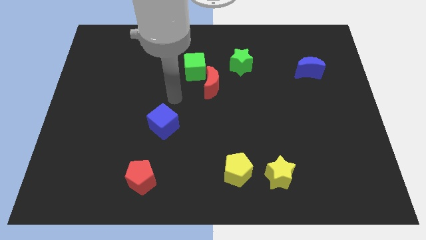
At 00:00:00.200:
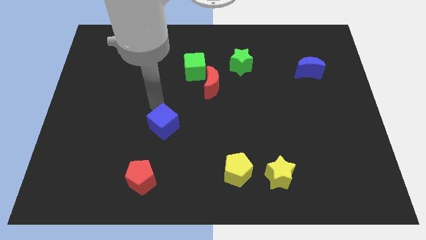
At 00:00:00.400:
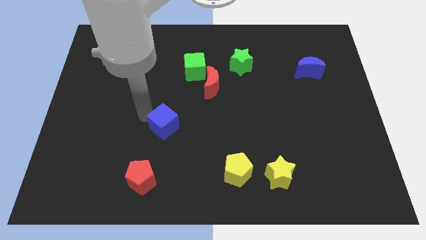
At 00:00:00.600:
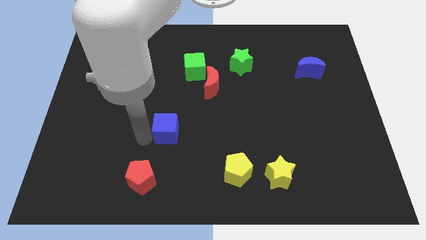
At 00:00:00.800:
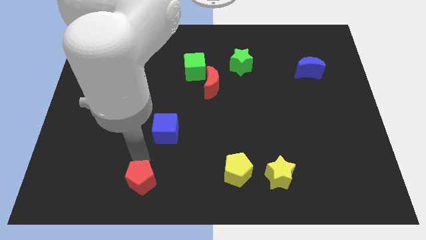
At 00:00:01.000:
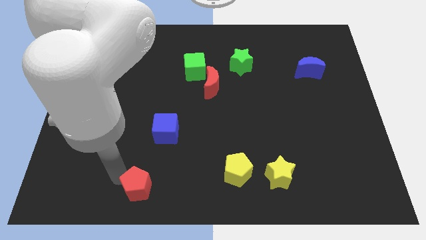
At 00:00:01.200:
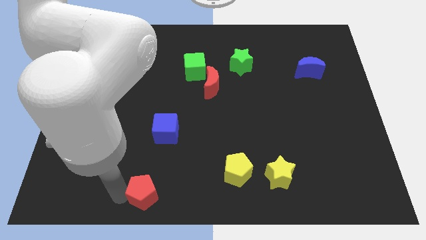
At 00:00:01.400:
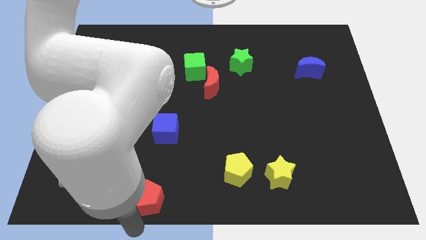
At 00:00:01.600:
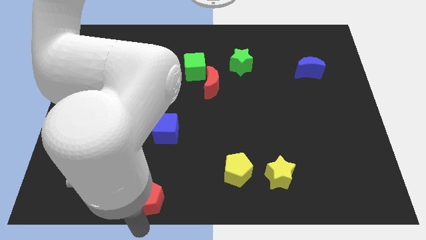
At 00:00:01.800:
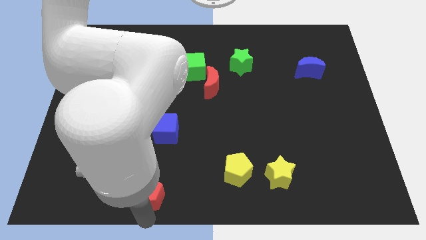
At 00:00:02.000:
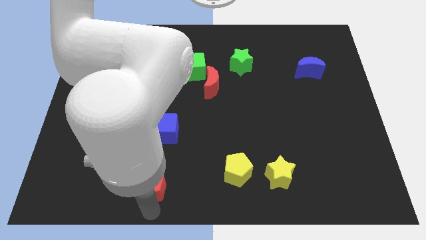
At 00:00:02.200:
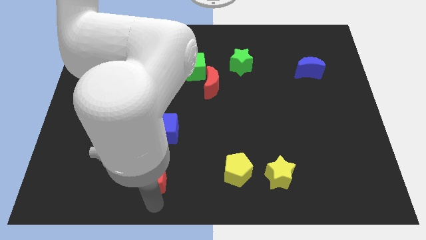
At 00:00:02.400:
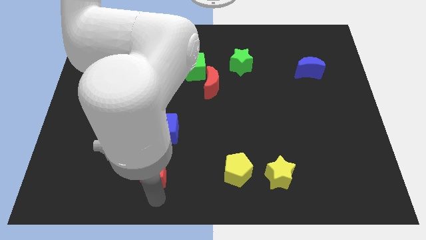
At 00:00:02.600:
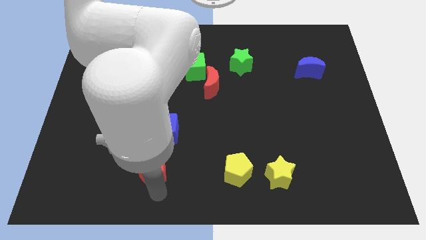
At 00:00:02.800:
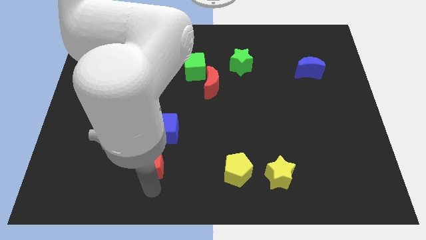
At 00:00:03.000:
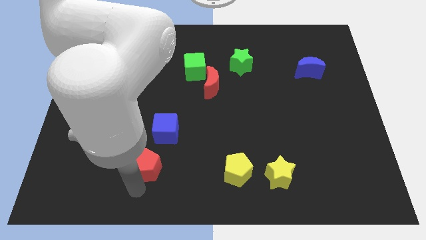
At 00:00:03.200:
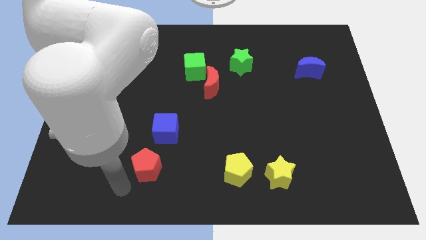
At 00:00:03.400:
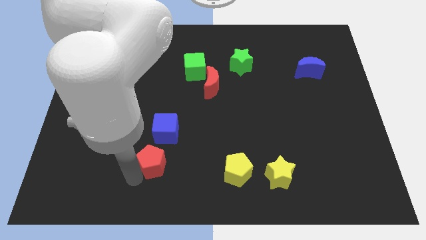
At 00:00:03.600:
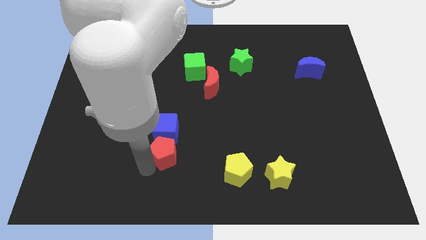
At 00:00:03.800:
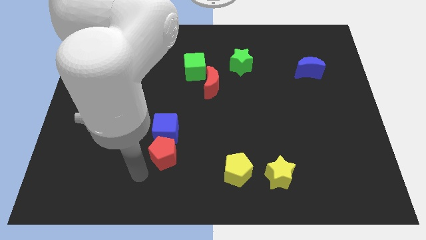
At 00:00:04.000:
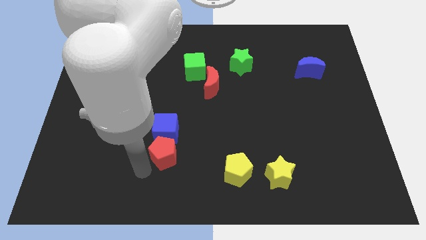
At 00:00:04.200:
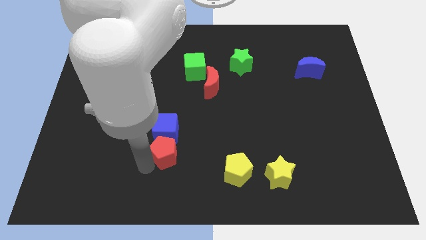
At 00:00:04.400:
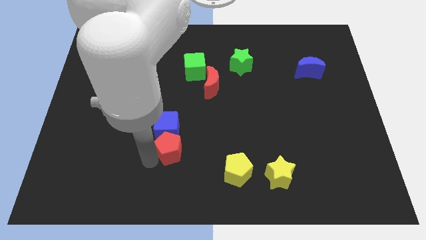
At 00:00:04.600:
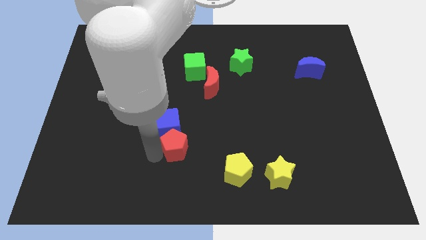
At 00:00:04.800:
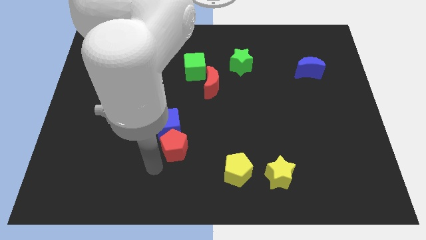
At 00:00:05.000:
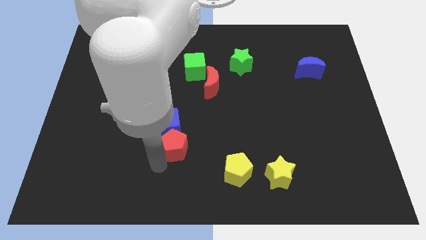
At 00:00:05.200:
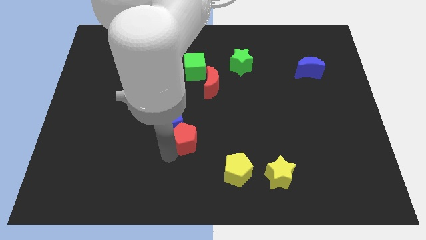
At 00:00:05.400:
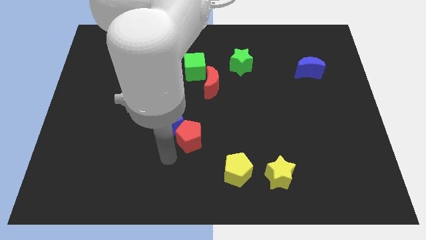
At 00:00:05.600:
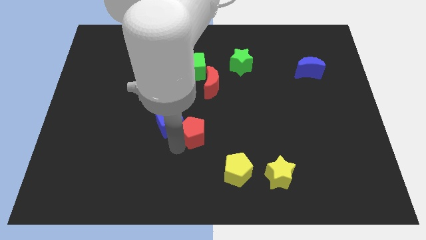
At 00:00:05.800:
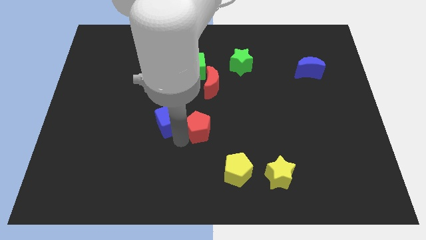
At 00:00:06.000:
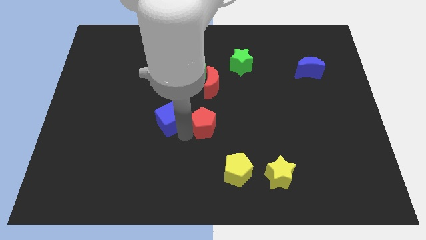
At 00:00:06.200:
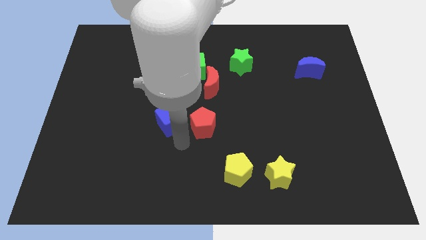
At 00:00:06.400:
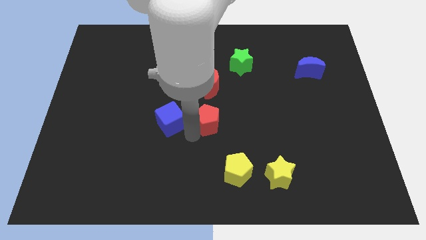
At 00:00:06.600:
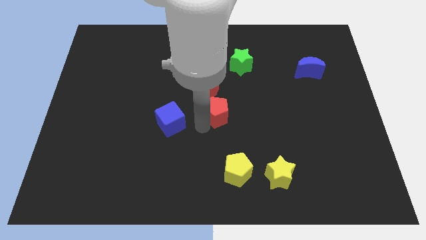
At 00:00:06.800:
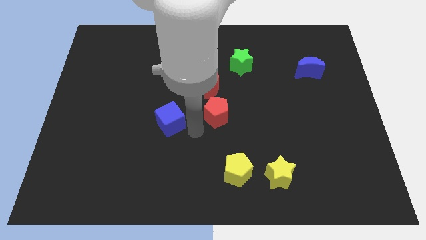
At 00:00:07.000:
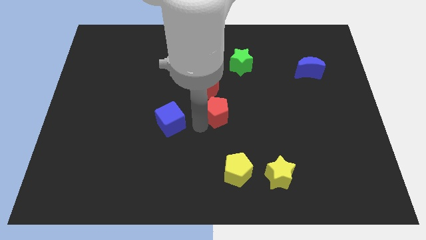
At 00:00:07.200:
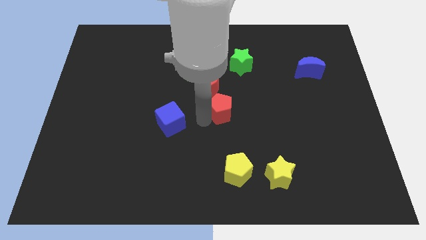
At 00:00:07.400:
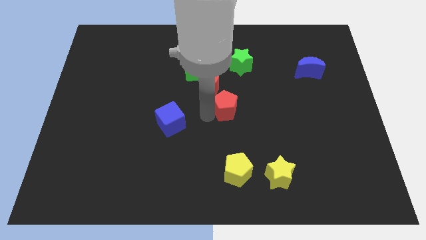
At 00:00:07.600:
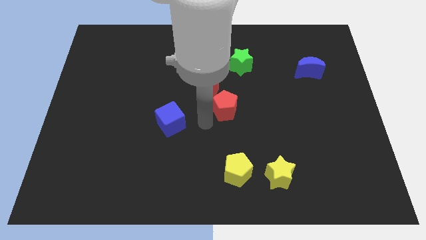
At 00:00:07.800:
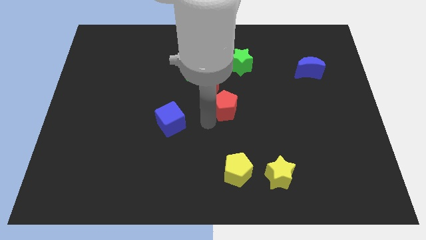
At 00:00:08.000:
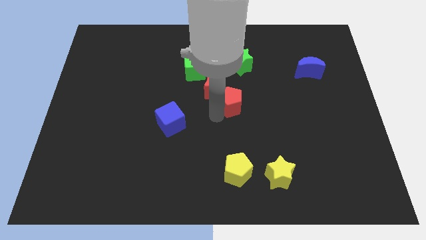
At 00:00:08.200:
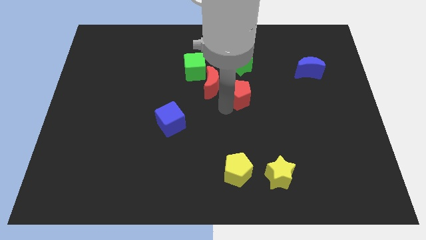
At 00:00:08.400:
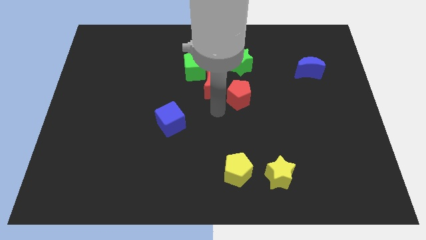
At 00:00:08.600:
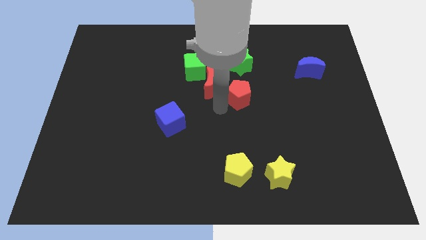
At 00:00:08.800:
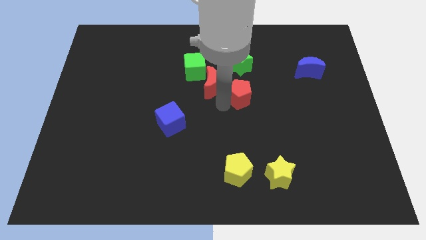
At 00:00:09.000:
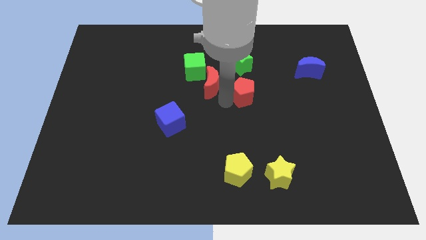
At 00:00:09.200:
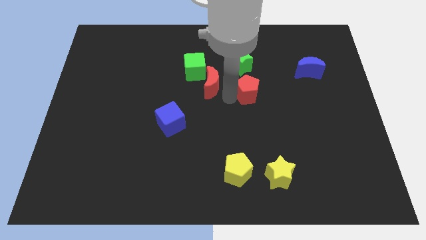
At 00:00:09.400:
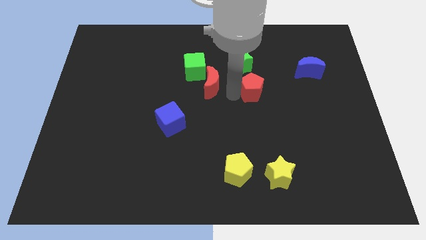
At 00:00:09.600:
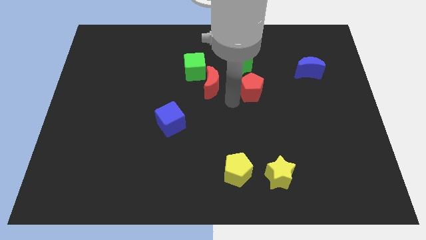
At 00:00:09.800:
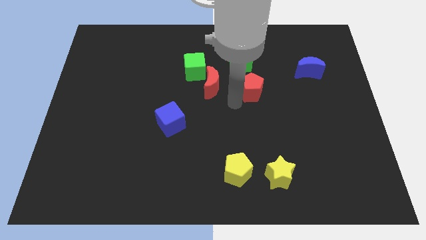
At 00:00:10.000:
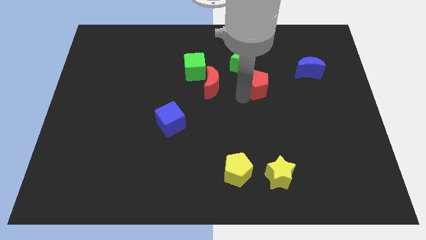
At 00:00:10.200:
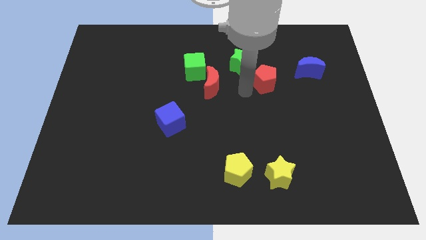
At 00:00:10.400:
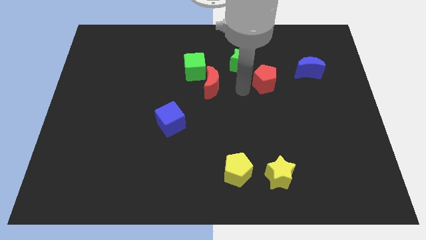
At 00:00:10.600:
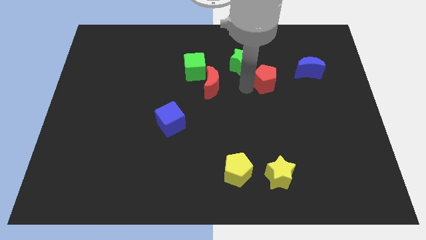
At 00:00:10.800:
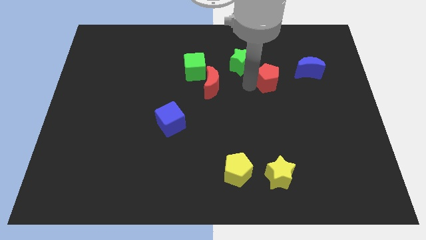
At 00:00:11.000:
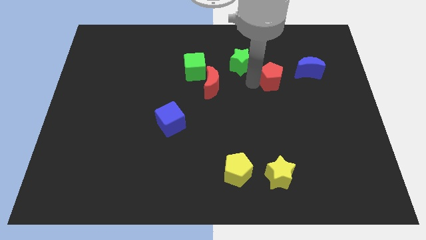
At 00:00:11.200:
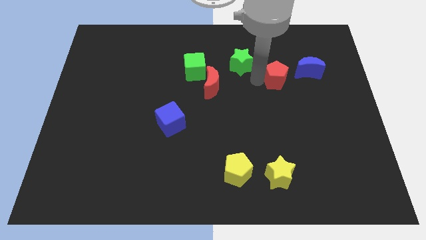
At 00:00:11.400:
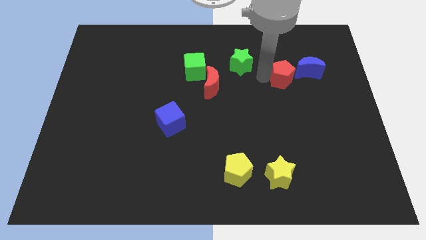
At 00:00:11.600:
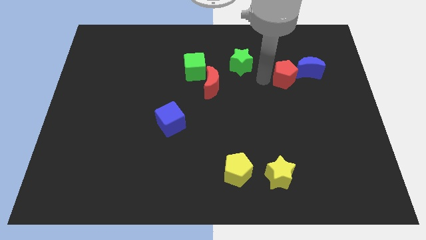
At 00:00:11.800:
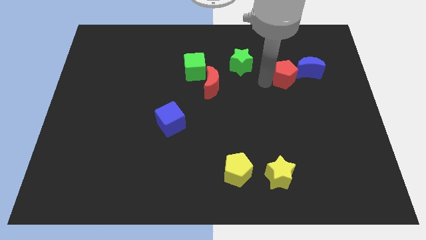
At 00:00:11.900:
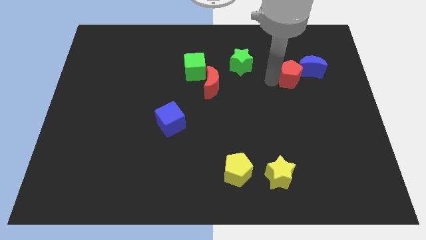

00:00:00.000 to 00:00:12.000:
move the red pentagon close to the blue moon
